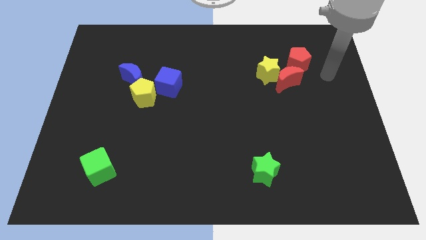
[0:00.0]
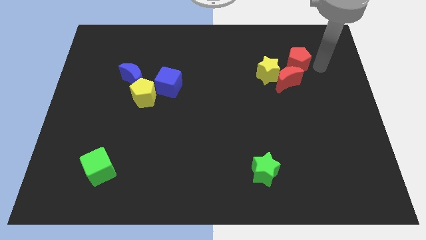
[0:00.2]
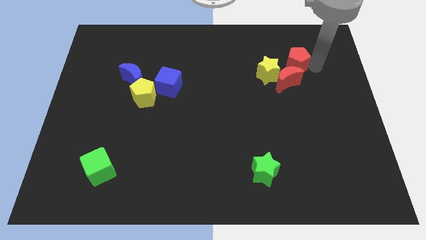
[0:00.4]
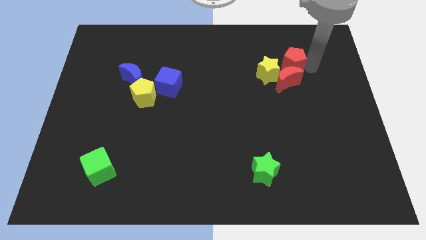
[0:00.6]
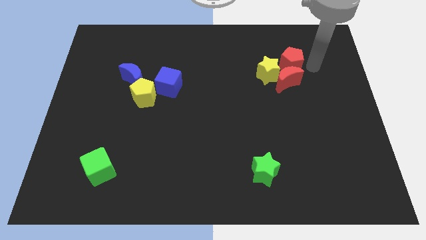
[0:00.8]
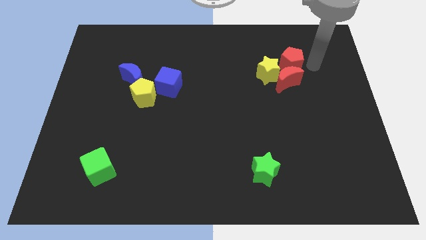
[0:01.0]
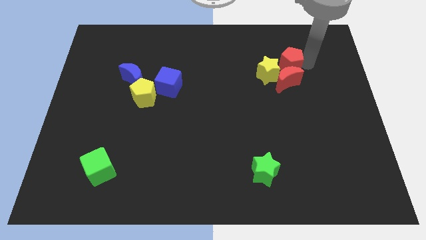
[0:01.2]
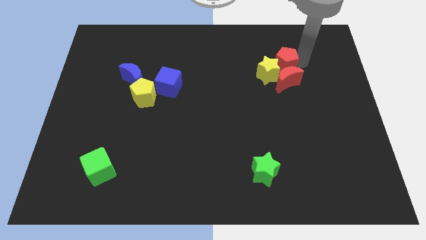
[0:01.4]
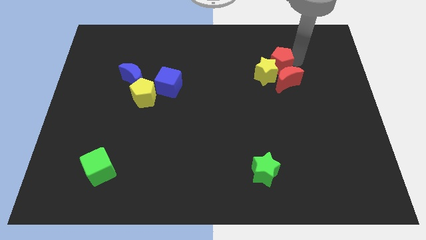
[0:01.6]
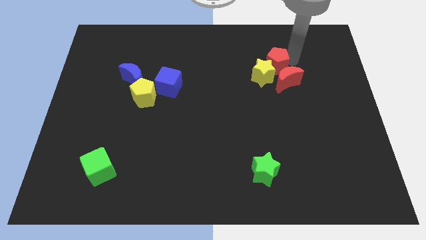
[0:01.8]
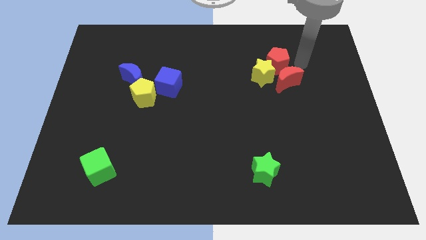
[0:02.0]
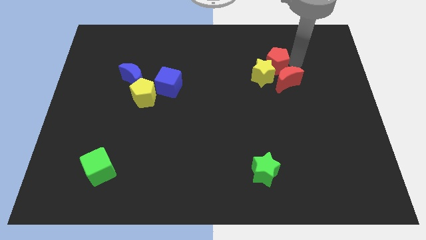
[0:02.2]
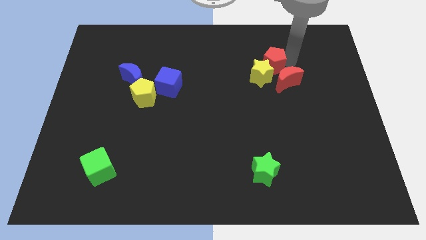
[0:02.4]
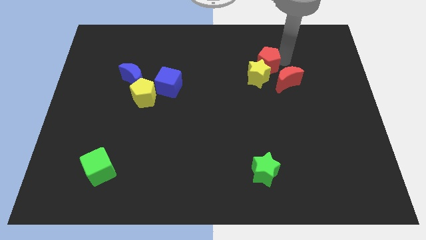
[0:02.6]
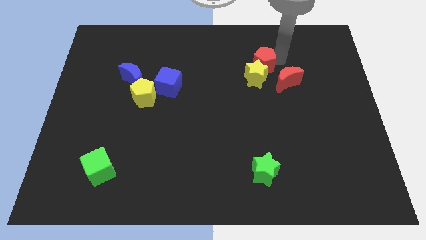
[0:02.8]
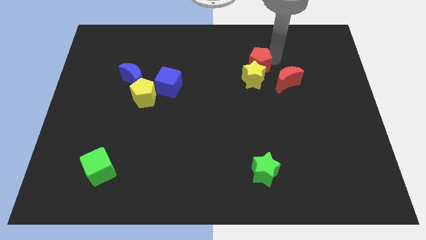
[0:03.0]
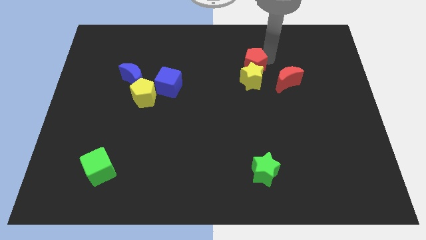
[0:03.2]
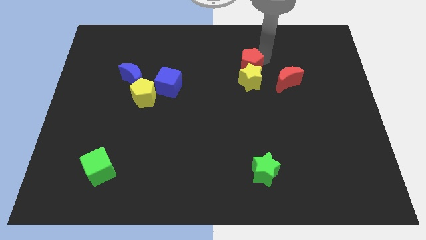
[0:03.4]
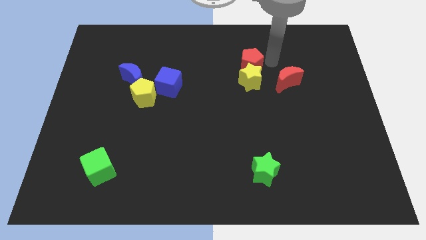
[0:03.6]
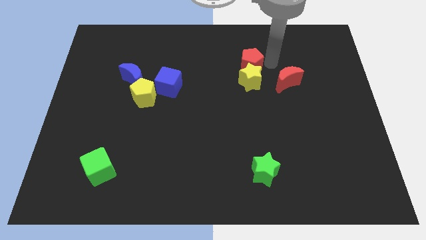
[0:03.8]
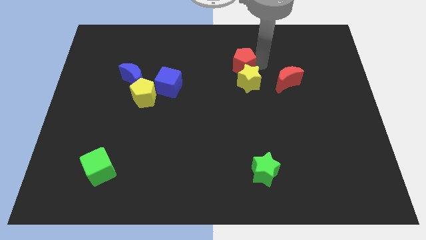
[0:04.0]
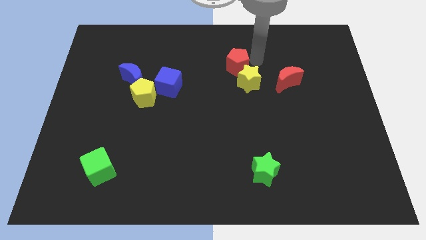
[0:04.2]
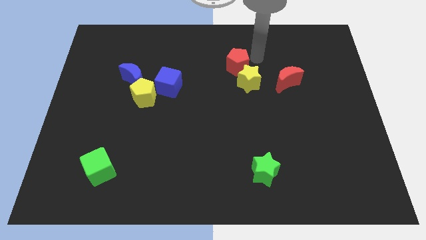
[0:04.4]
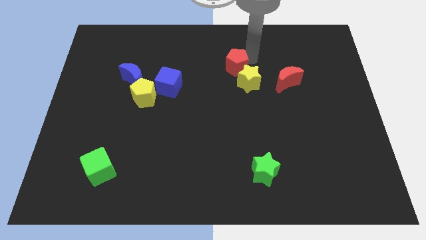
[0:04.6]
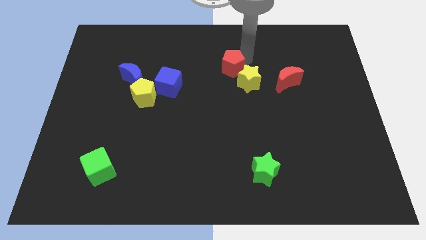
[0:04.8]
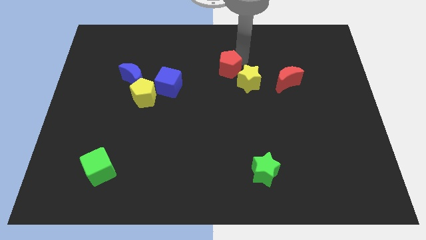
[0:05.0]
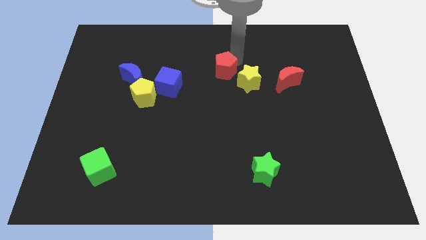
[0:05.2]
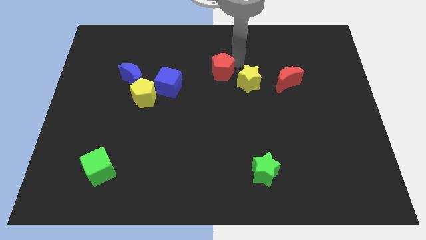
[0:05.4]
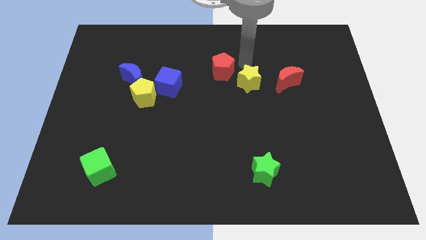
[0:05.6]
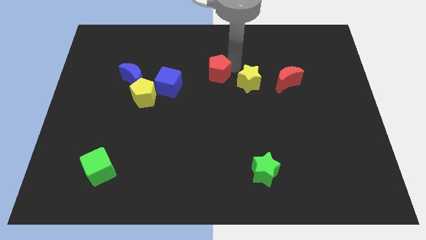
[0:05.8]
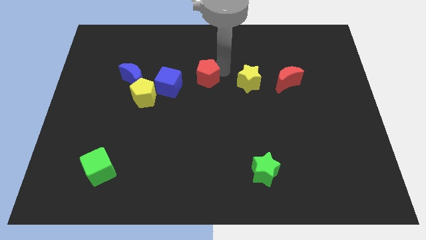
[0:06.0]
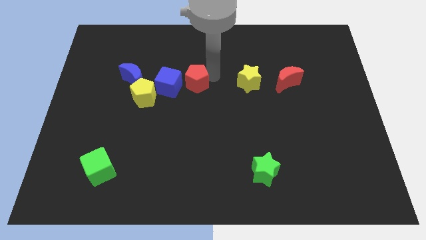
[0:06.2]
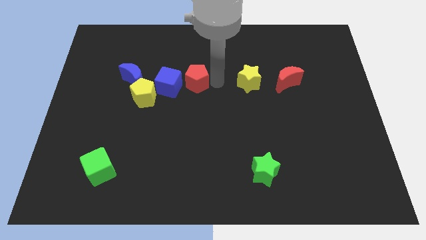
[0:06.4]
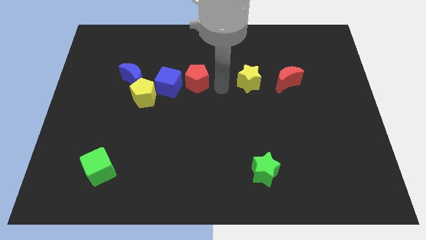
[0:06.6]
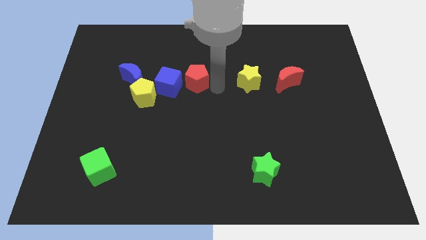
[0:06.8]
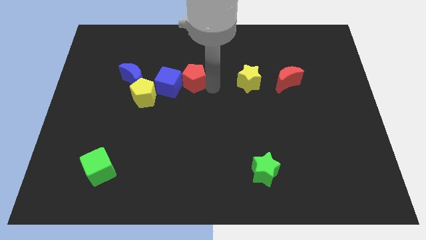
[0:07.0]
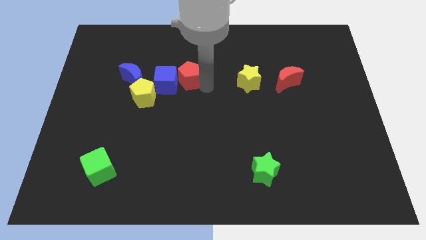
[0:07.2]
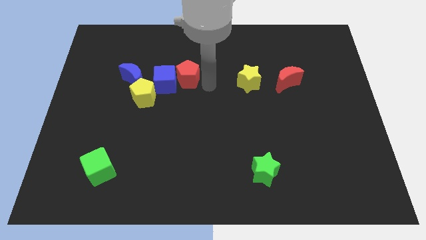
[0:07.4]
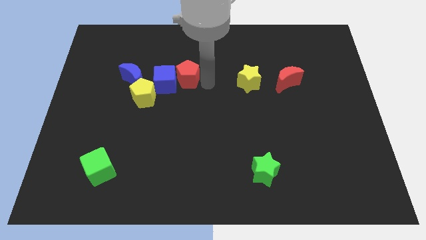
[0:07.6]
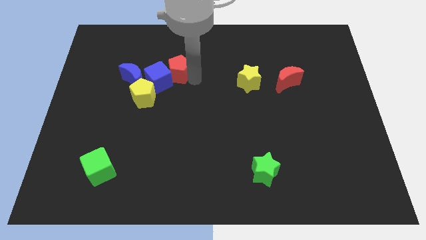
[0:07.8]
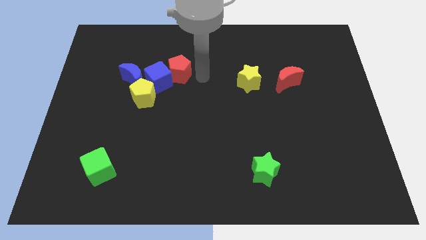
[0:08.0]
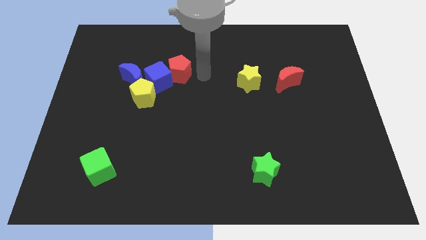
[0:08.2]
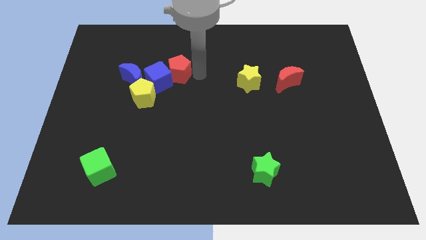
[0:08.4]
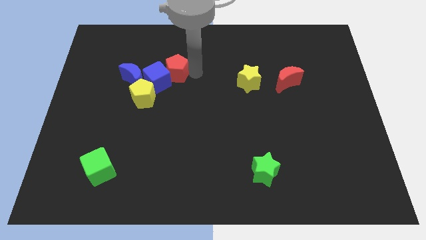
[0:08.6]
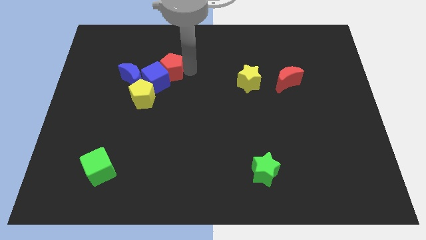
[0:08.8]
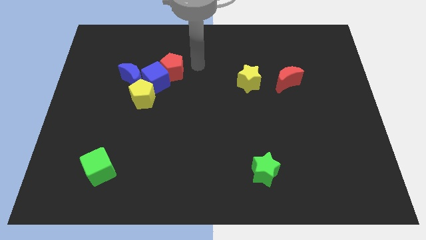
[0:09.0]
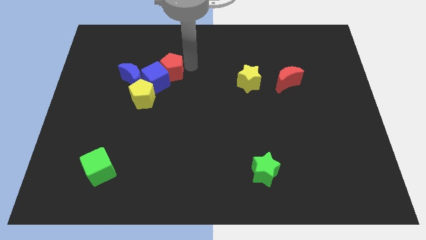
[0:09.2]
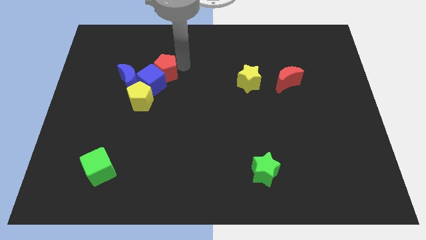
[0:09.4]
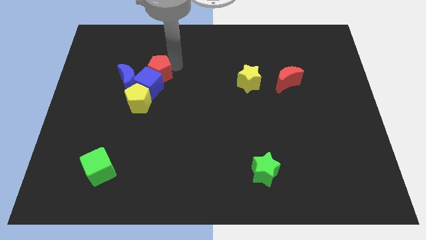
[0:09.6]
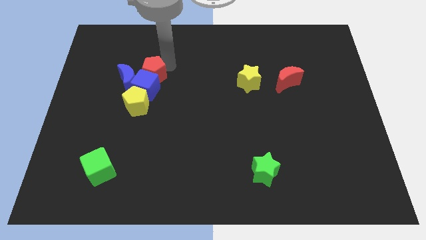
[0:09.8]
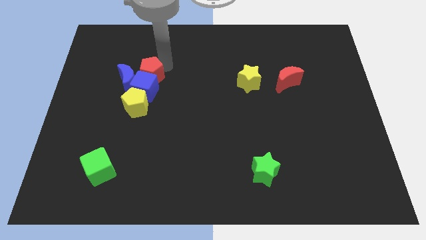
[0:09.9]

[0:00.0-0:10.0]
slide the red pentagon towards the blue moon

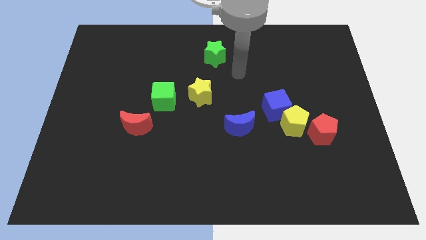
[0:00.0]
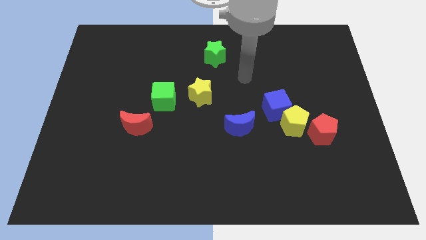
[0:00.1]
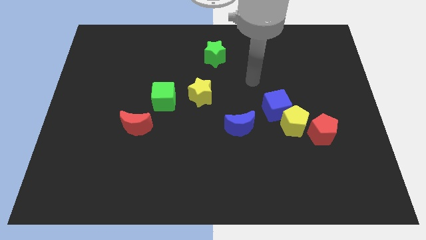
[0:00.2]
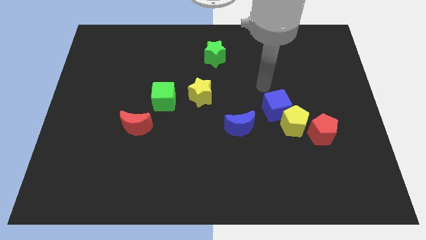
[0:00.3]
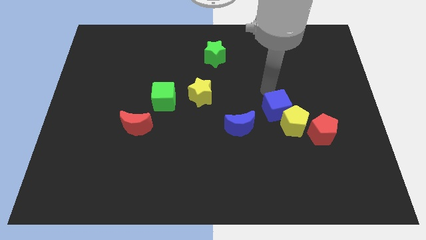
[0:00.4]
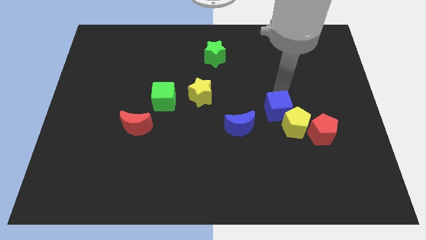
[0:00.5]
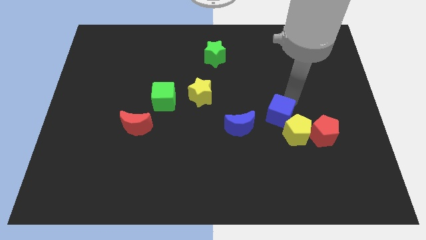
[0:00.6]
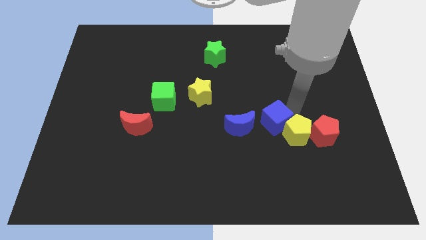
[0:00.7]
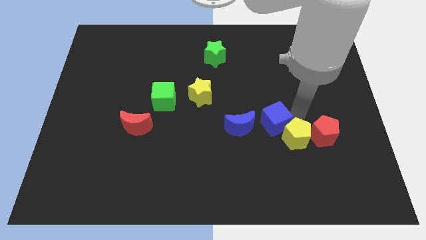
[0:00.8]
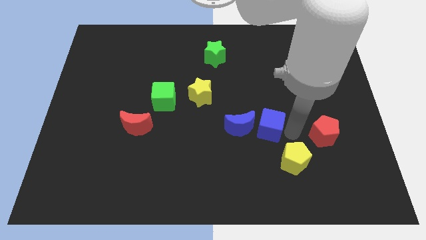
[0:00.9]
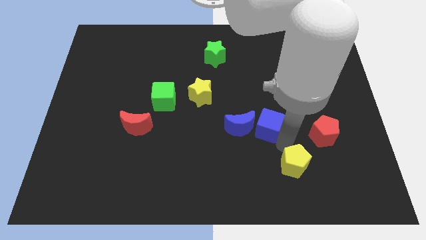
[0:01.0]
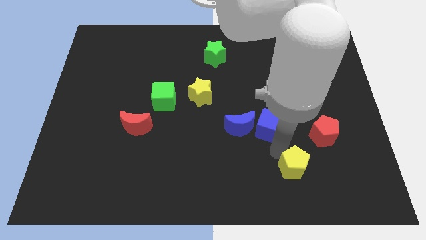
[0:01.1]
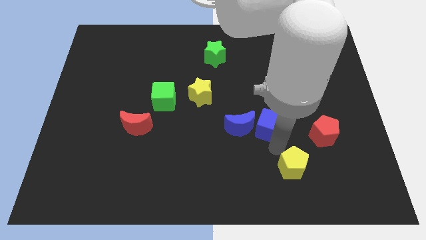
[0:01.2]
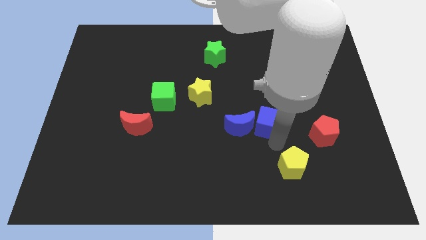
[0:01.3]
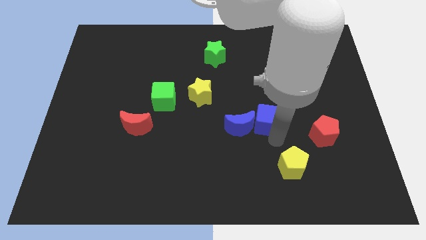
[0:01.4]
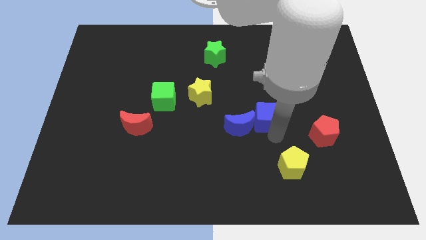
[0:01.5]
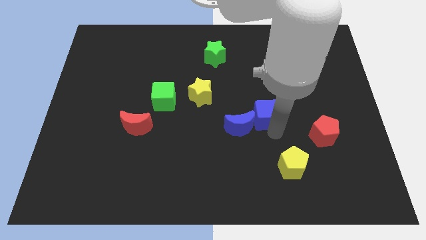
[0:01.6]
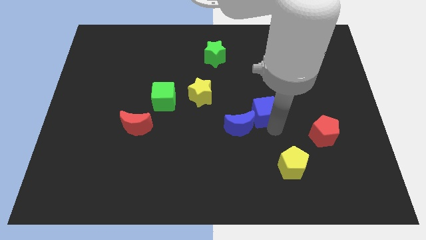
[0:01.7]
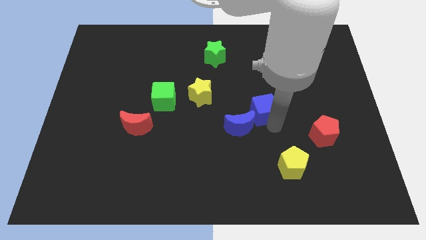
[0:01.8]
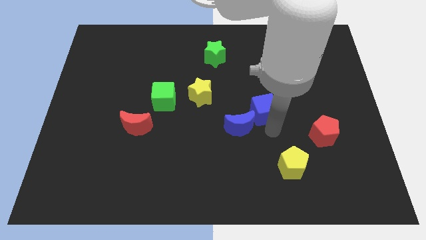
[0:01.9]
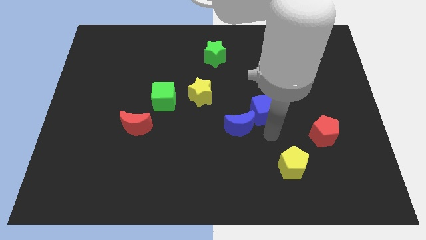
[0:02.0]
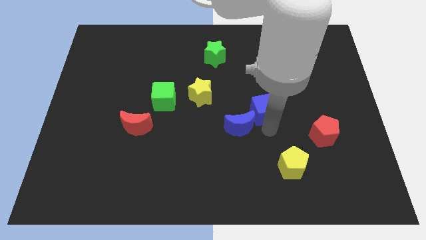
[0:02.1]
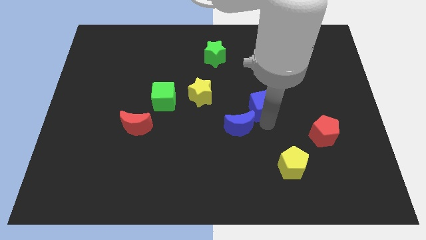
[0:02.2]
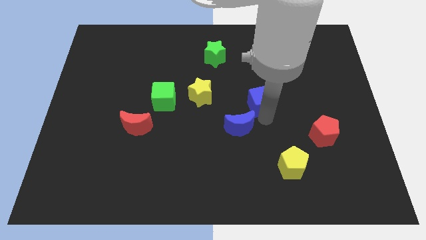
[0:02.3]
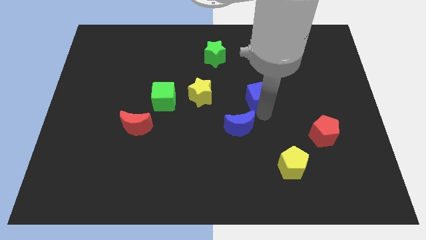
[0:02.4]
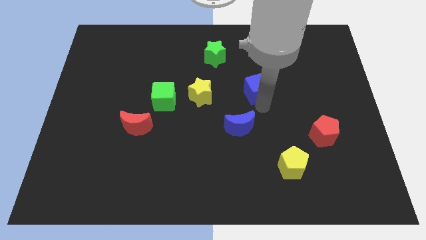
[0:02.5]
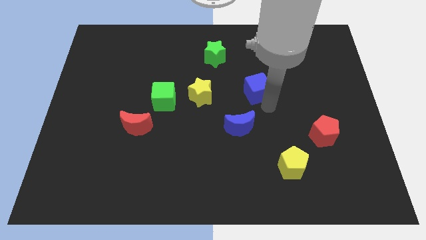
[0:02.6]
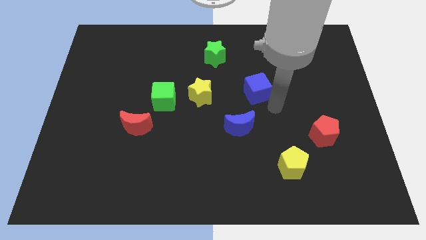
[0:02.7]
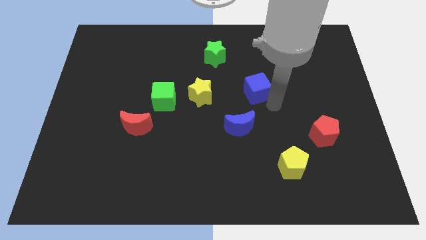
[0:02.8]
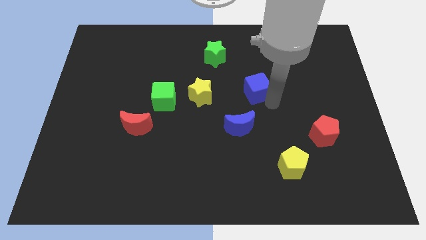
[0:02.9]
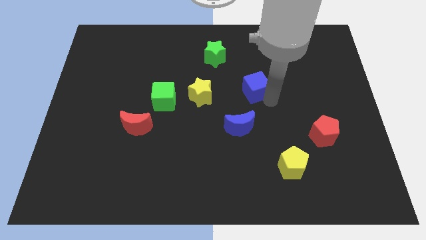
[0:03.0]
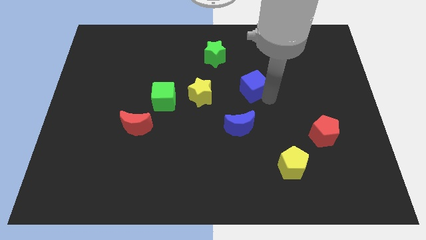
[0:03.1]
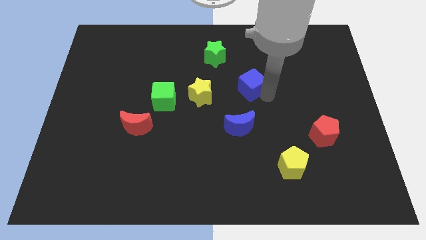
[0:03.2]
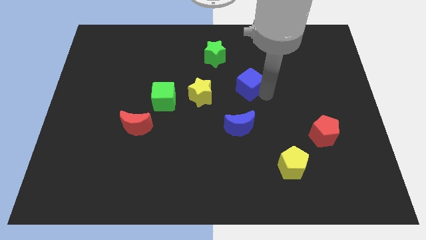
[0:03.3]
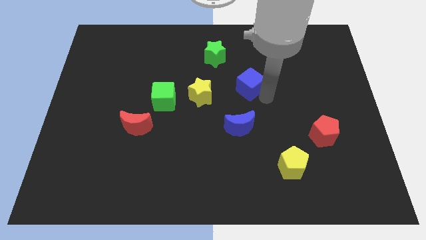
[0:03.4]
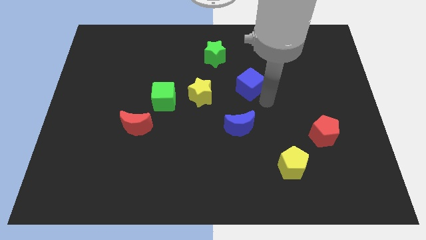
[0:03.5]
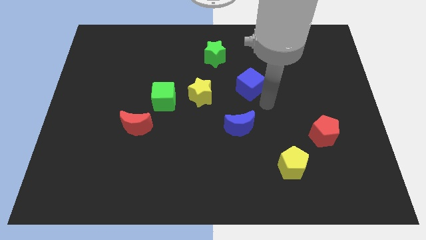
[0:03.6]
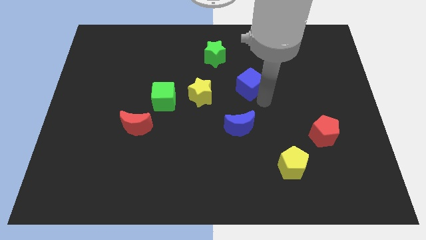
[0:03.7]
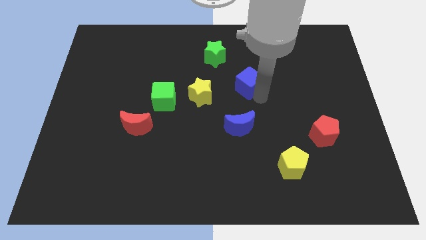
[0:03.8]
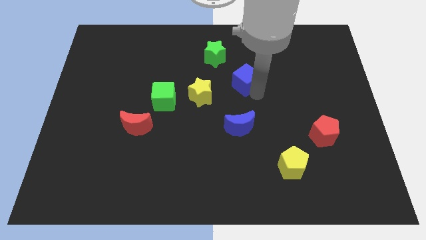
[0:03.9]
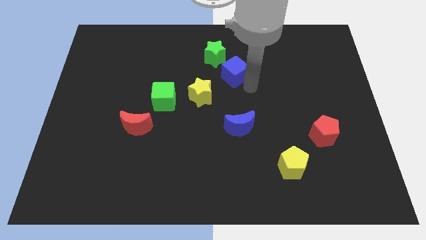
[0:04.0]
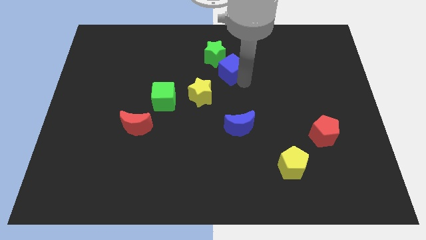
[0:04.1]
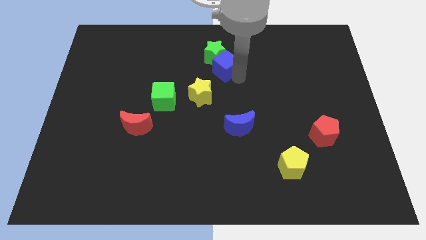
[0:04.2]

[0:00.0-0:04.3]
move the blue cube next to the green star
